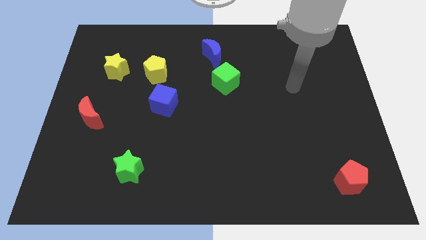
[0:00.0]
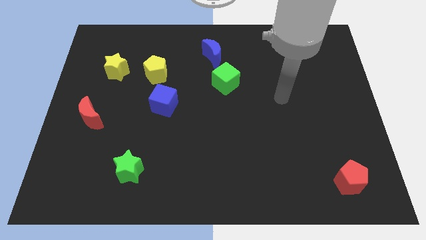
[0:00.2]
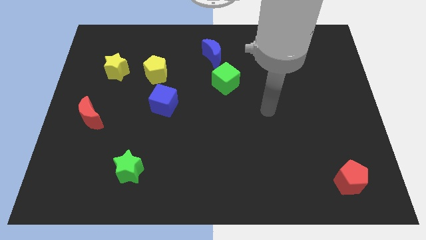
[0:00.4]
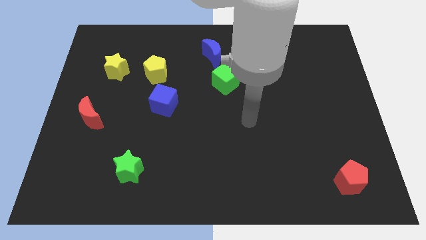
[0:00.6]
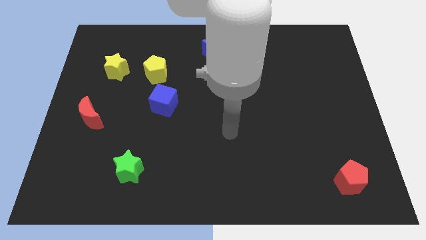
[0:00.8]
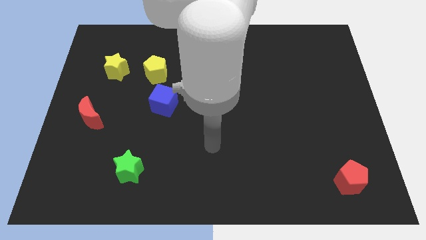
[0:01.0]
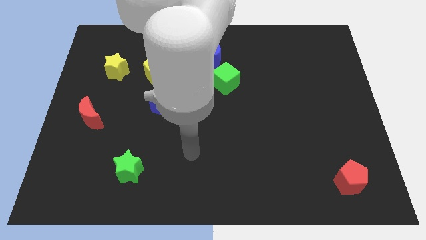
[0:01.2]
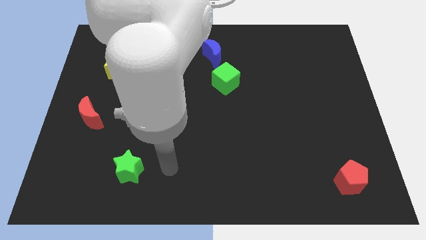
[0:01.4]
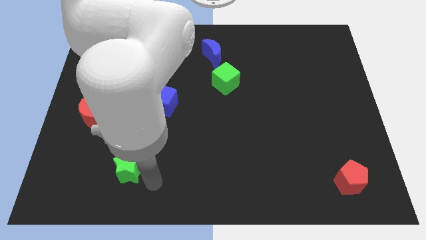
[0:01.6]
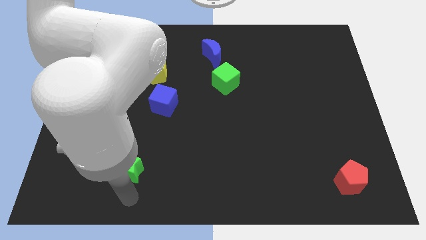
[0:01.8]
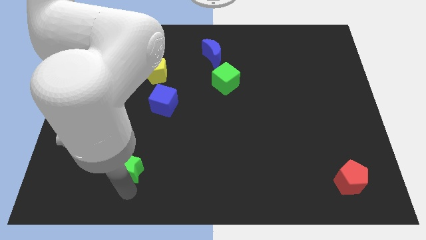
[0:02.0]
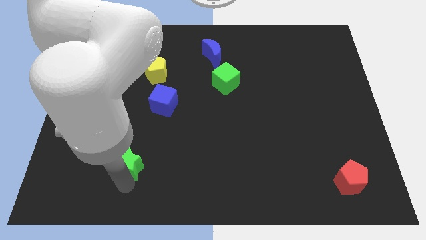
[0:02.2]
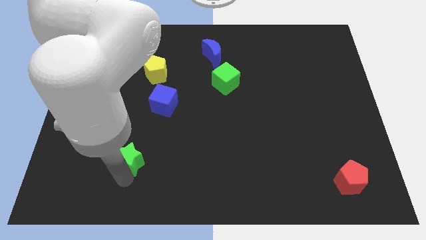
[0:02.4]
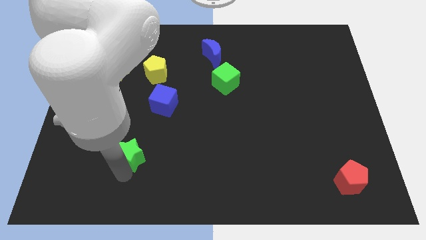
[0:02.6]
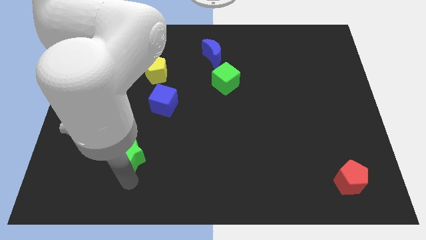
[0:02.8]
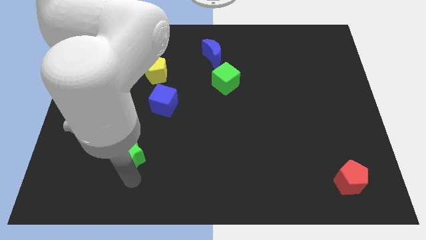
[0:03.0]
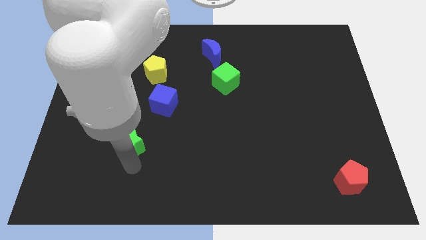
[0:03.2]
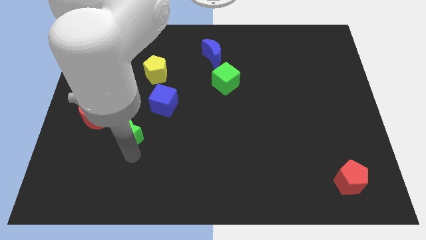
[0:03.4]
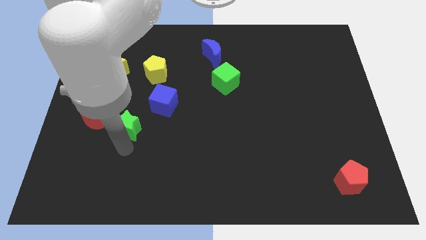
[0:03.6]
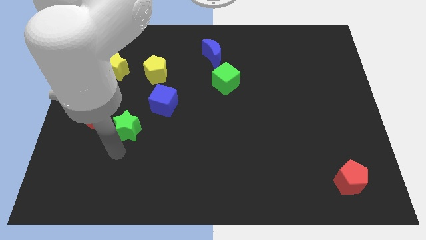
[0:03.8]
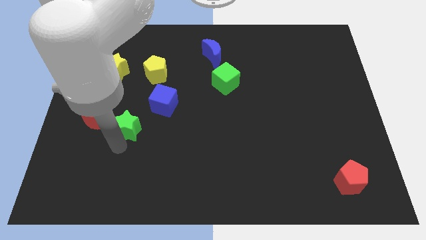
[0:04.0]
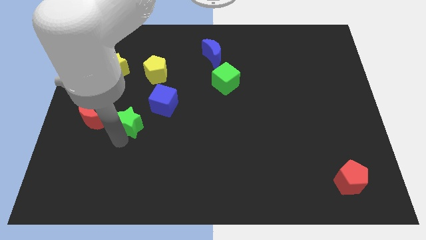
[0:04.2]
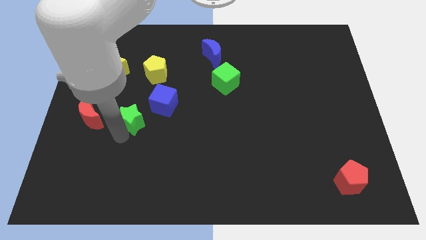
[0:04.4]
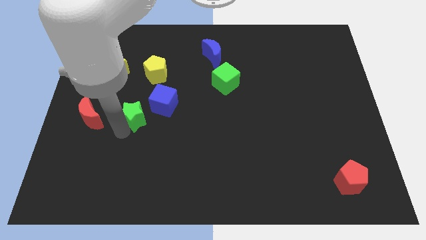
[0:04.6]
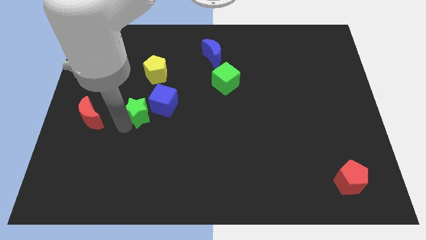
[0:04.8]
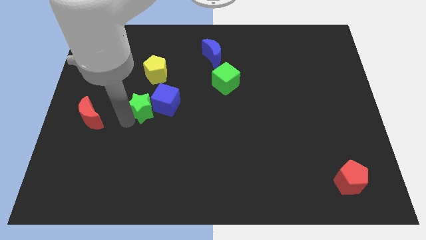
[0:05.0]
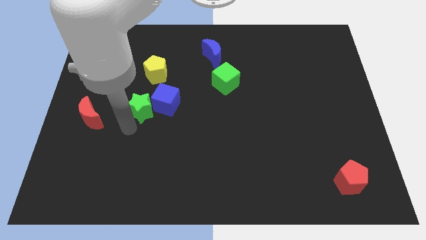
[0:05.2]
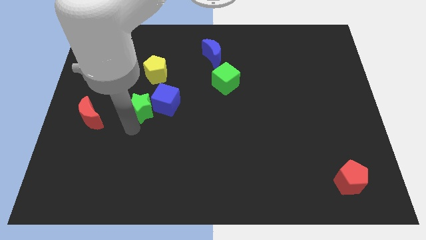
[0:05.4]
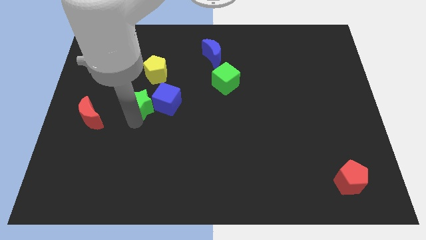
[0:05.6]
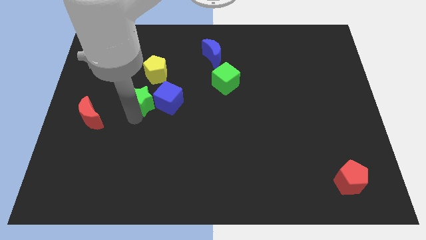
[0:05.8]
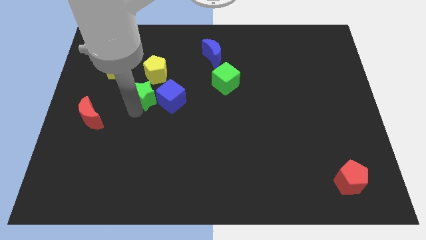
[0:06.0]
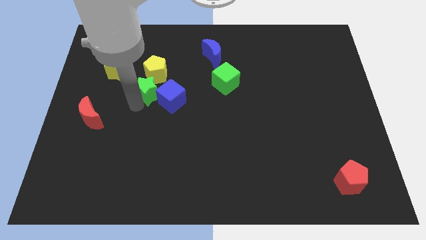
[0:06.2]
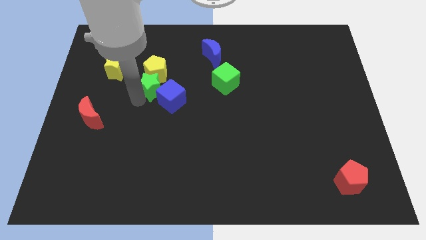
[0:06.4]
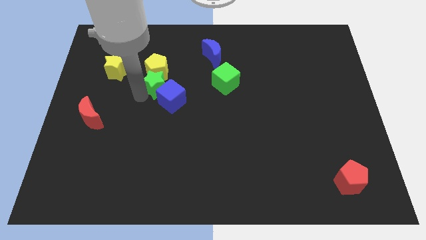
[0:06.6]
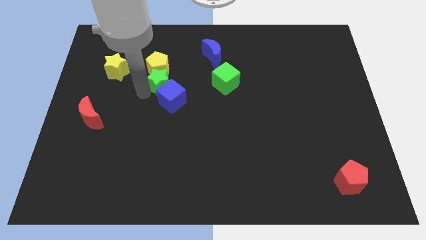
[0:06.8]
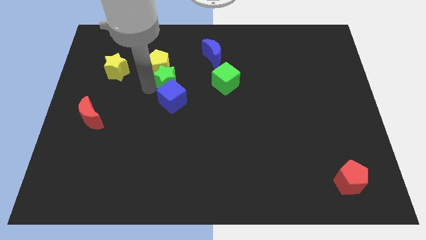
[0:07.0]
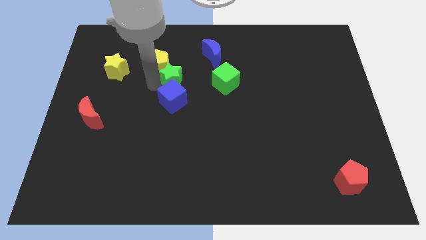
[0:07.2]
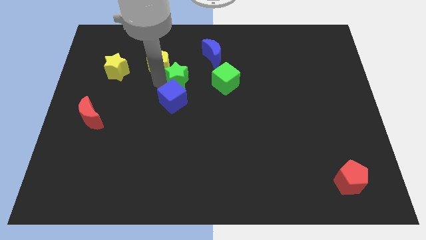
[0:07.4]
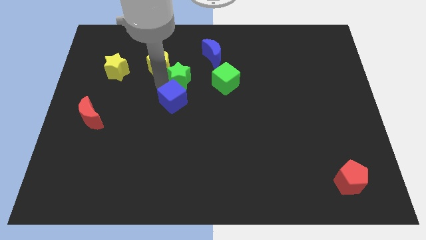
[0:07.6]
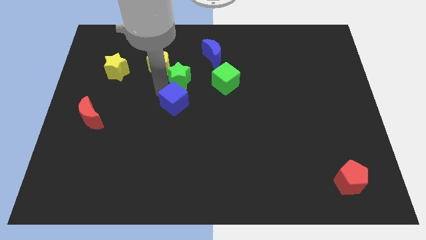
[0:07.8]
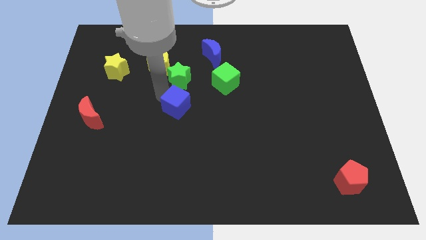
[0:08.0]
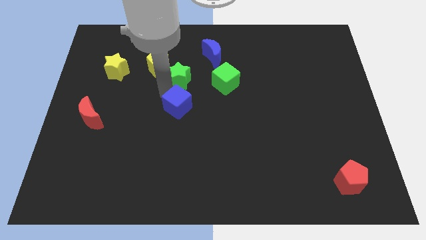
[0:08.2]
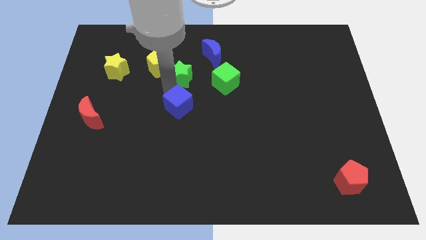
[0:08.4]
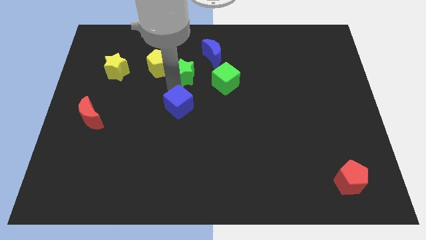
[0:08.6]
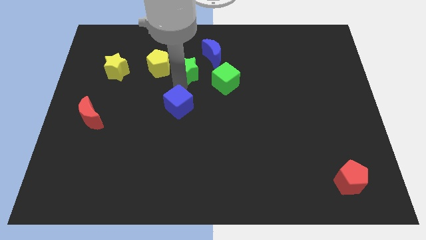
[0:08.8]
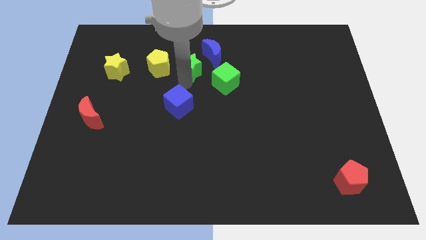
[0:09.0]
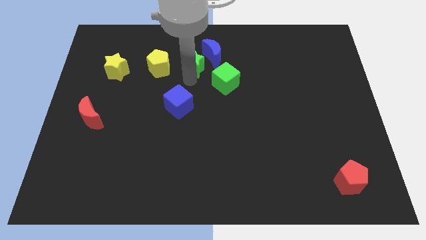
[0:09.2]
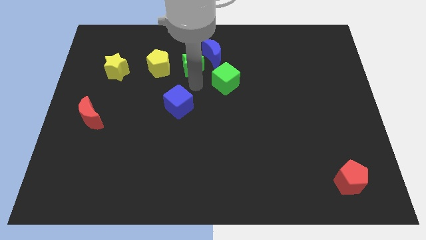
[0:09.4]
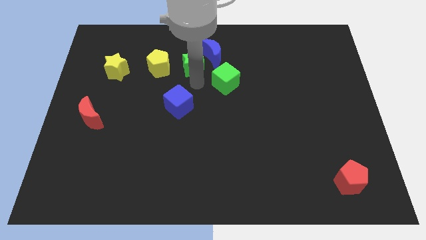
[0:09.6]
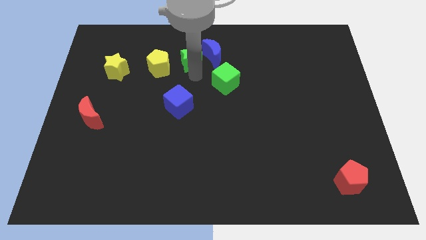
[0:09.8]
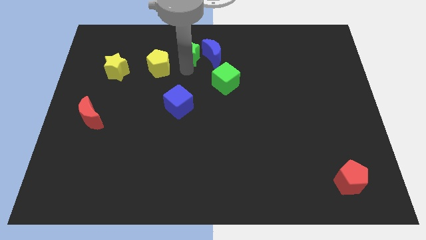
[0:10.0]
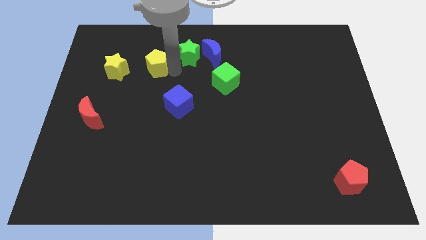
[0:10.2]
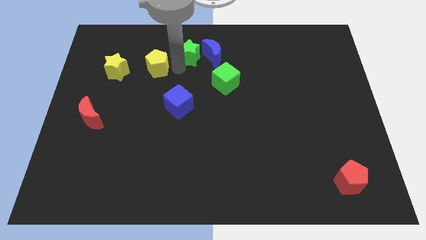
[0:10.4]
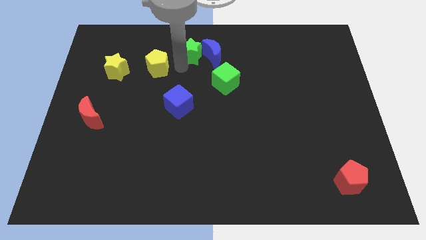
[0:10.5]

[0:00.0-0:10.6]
move the green star to the towards your base
